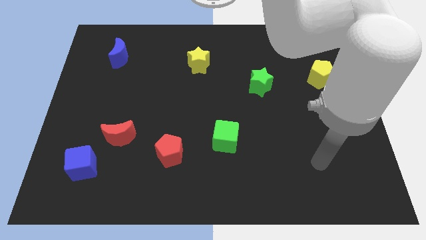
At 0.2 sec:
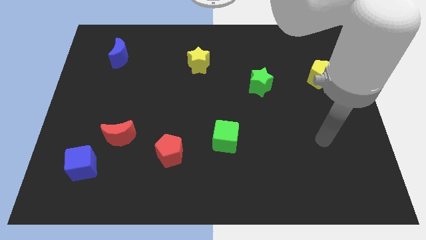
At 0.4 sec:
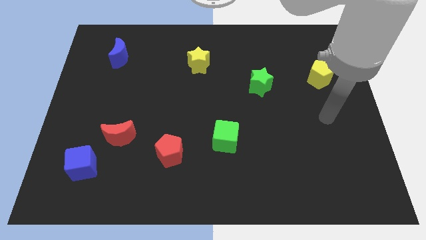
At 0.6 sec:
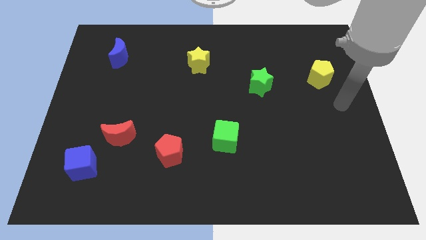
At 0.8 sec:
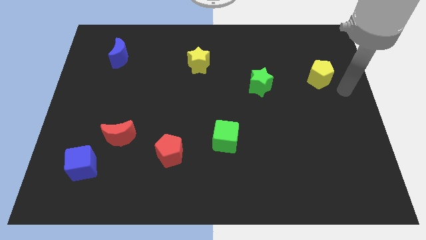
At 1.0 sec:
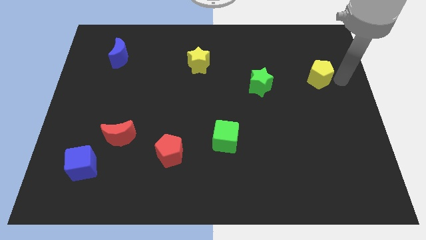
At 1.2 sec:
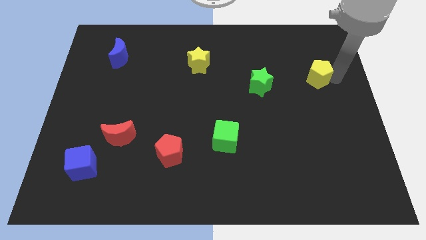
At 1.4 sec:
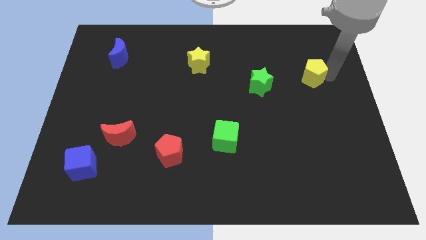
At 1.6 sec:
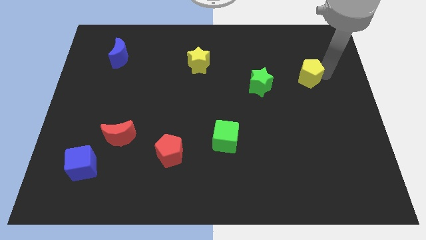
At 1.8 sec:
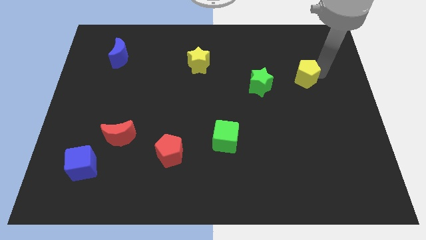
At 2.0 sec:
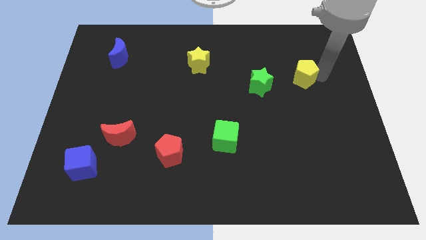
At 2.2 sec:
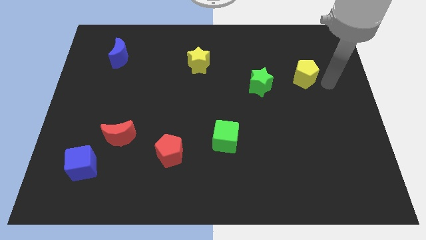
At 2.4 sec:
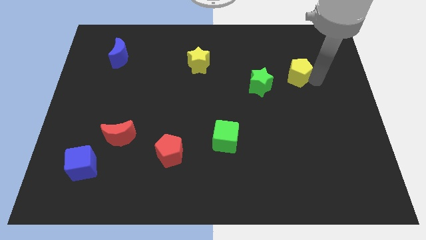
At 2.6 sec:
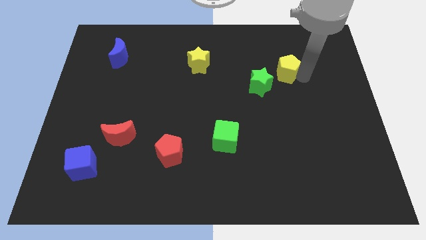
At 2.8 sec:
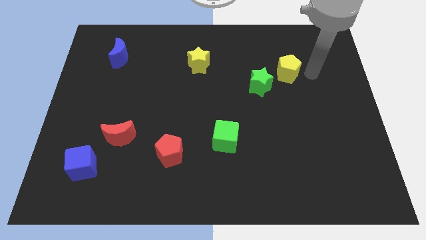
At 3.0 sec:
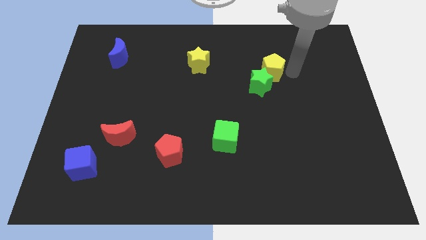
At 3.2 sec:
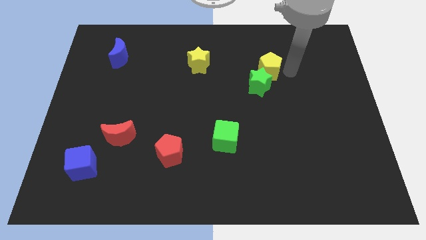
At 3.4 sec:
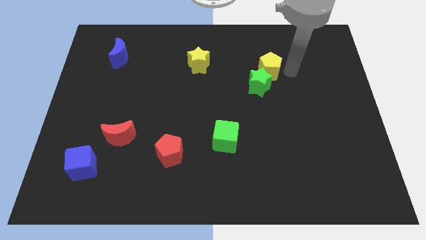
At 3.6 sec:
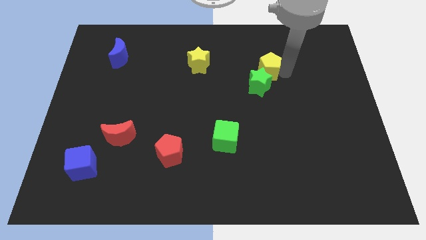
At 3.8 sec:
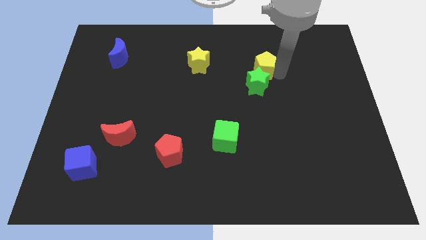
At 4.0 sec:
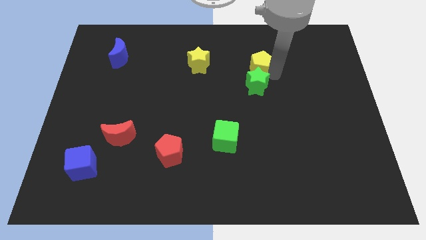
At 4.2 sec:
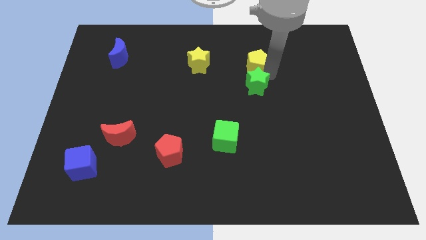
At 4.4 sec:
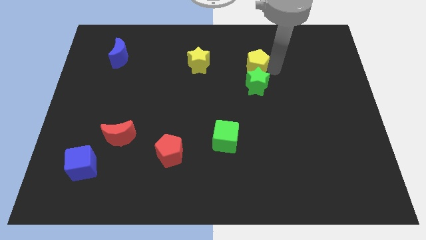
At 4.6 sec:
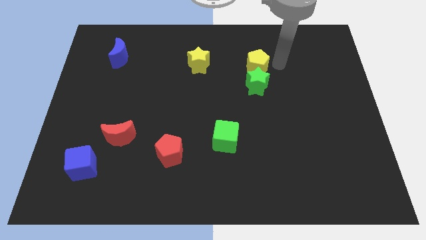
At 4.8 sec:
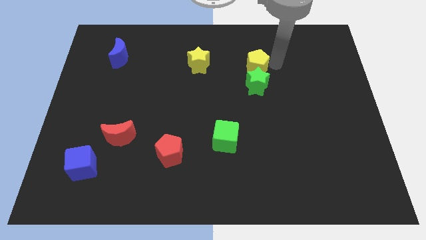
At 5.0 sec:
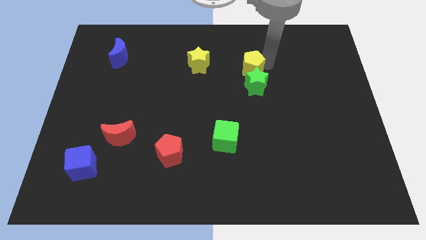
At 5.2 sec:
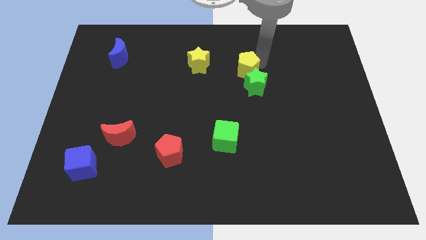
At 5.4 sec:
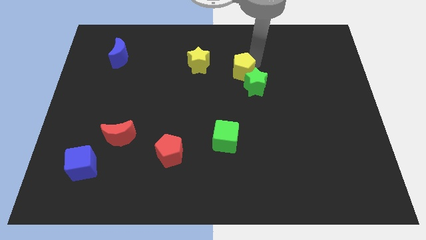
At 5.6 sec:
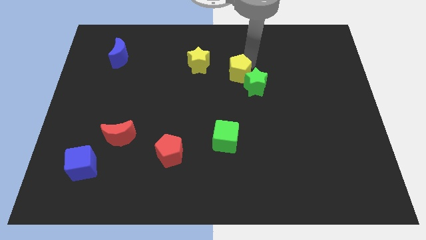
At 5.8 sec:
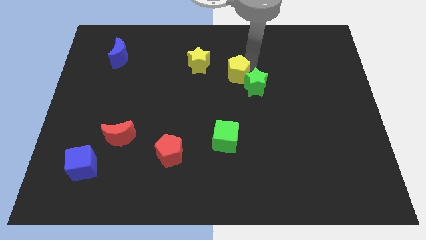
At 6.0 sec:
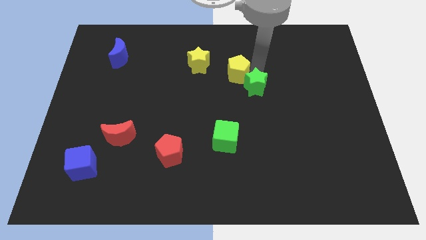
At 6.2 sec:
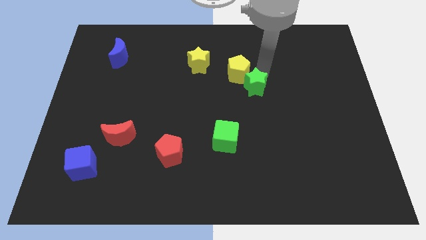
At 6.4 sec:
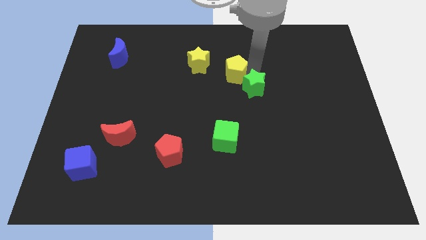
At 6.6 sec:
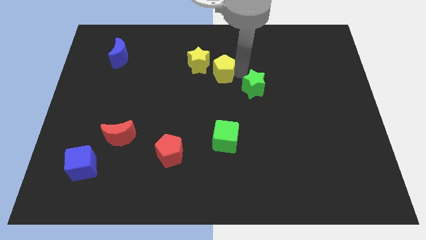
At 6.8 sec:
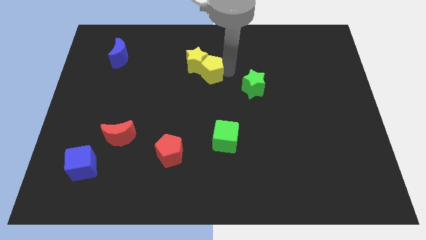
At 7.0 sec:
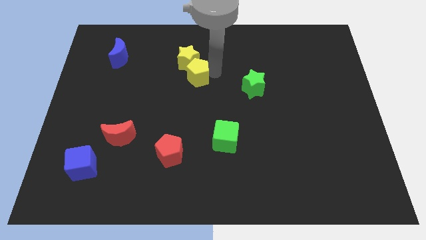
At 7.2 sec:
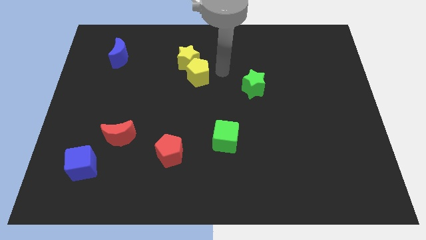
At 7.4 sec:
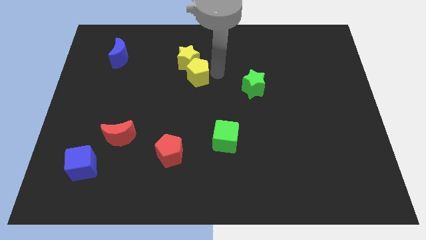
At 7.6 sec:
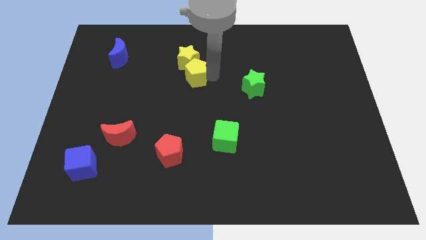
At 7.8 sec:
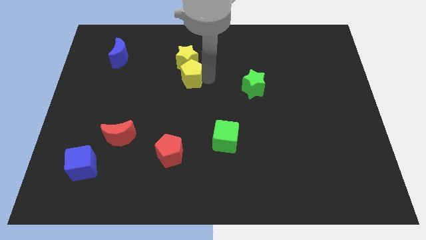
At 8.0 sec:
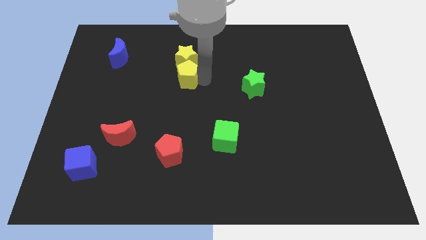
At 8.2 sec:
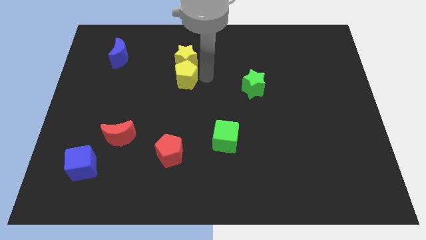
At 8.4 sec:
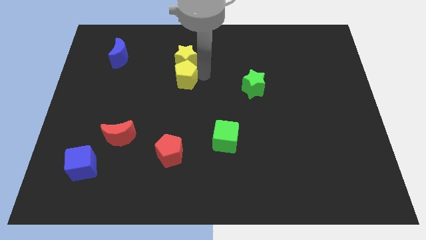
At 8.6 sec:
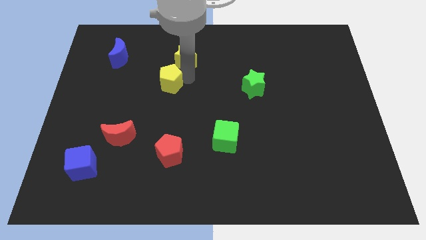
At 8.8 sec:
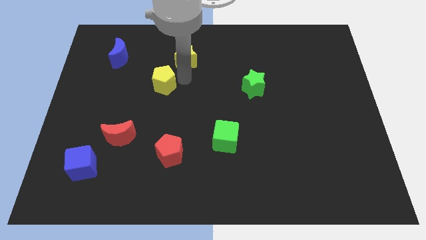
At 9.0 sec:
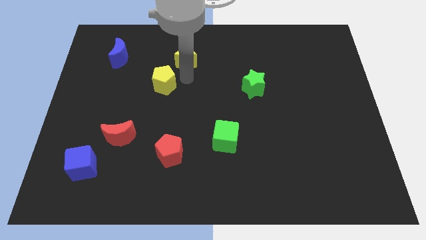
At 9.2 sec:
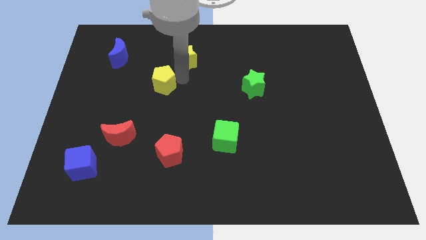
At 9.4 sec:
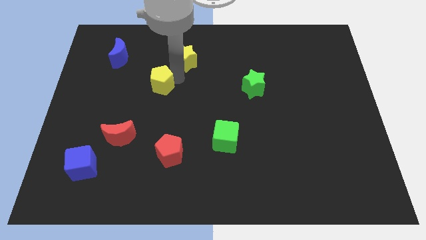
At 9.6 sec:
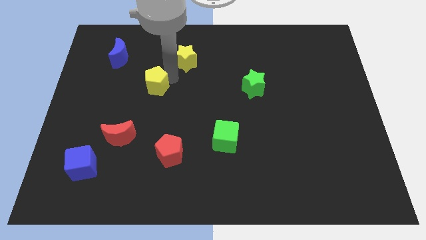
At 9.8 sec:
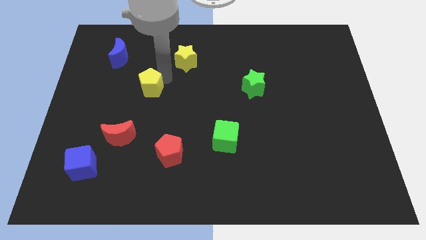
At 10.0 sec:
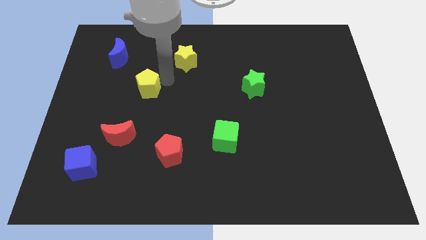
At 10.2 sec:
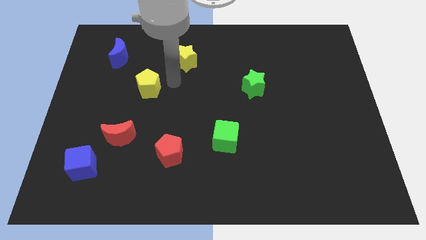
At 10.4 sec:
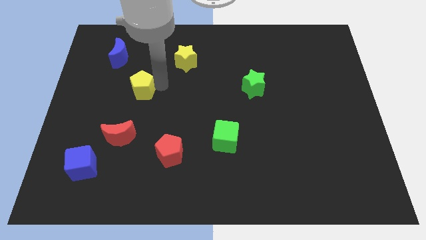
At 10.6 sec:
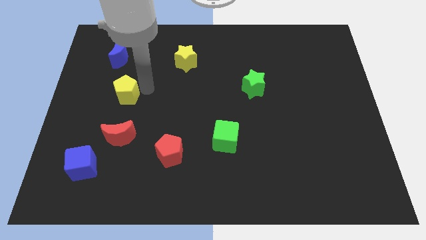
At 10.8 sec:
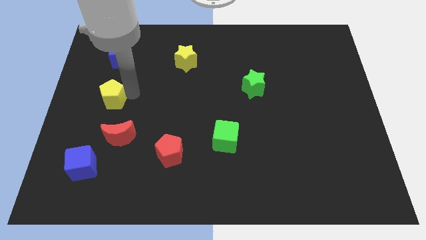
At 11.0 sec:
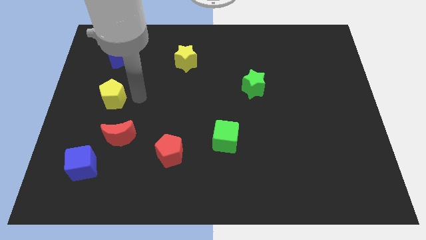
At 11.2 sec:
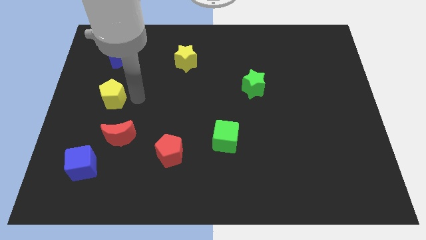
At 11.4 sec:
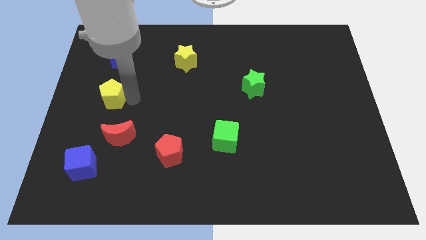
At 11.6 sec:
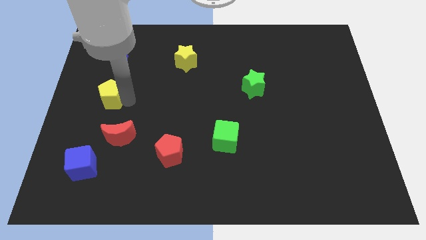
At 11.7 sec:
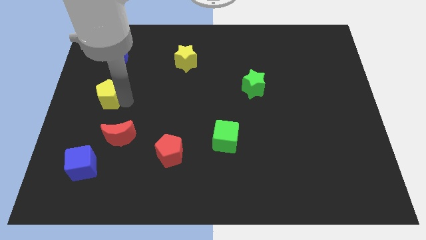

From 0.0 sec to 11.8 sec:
put the yellow pentagon to the center left
